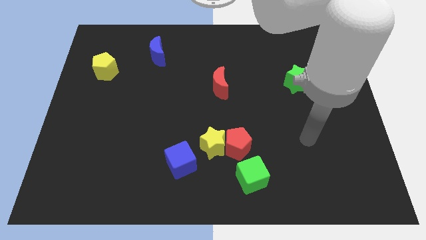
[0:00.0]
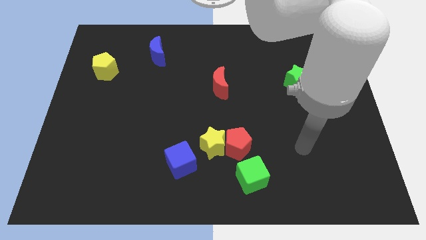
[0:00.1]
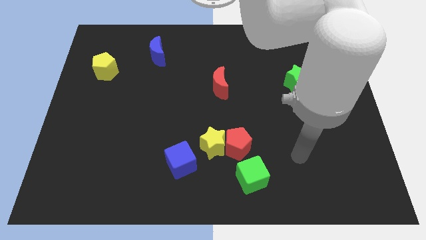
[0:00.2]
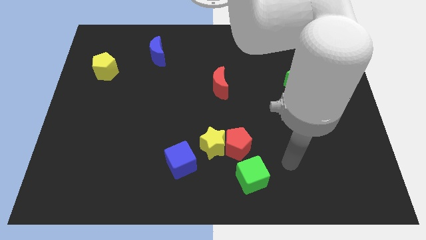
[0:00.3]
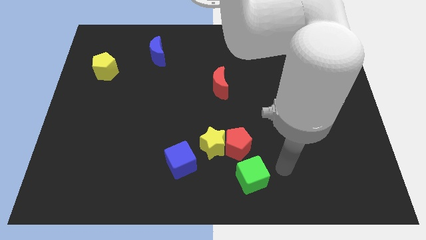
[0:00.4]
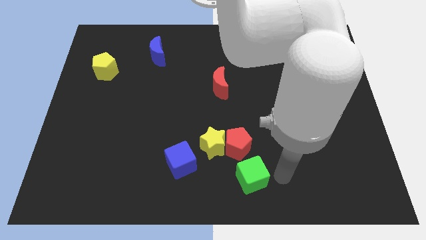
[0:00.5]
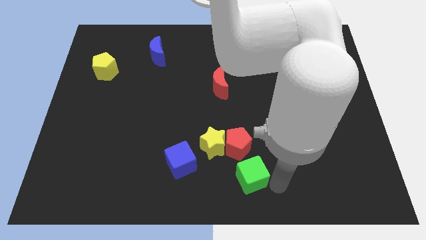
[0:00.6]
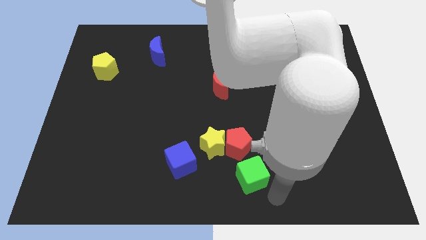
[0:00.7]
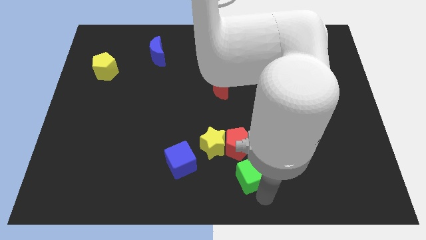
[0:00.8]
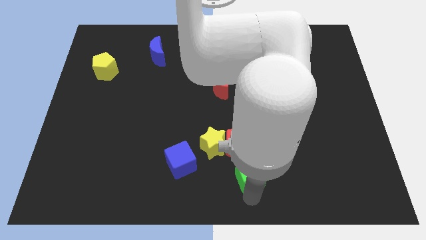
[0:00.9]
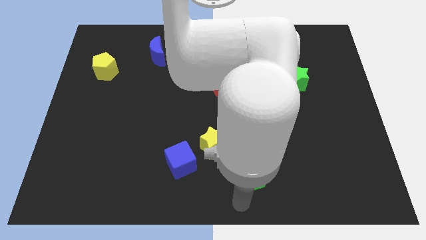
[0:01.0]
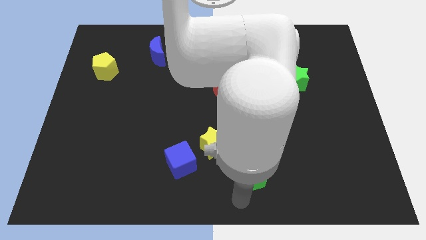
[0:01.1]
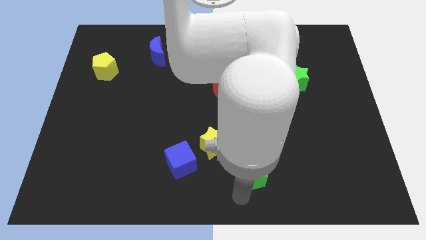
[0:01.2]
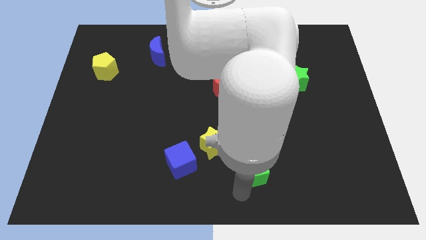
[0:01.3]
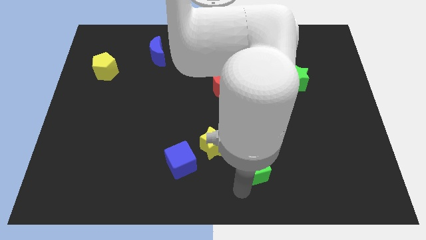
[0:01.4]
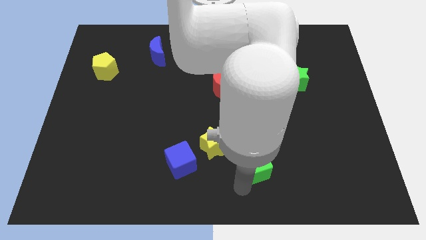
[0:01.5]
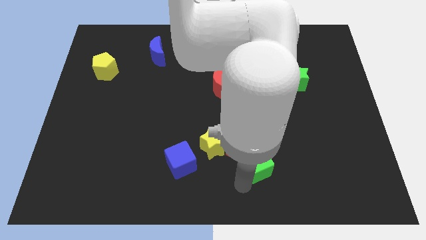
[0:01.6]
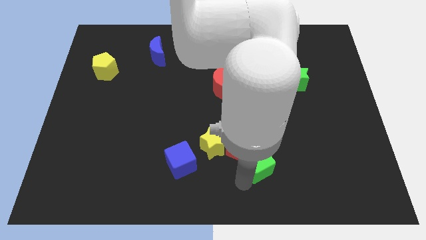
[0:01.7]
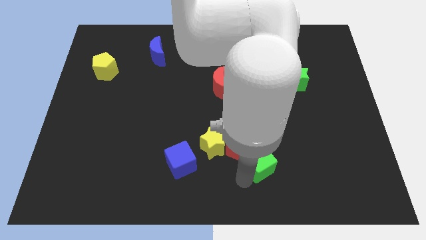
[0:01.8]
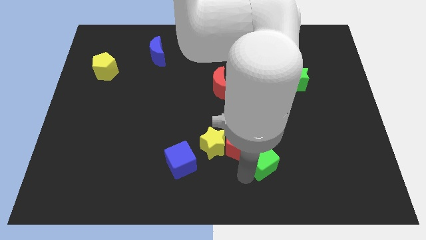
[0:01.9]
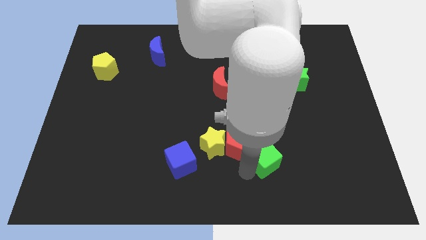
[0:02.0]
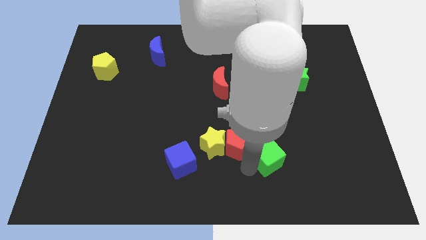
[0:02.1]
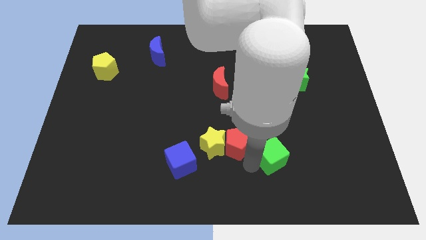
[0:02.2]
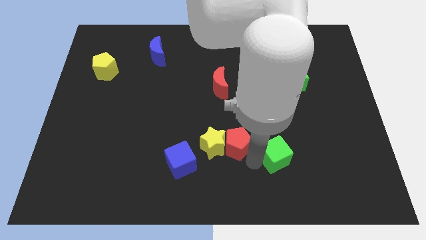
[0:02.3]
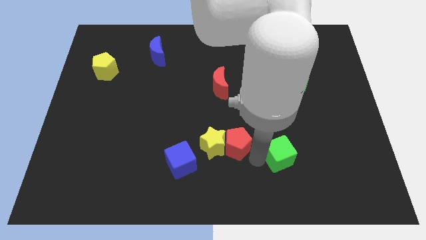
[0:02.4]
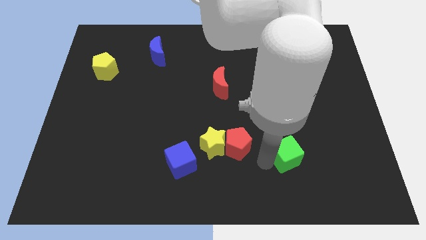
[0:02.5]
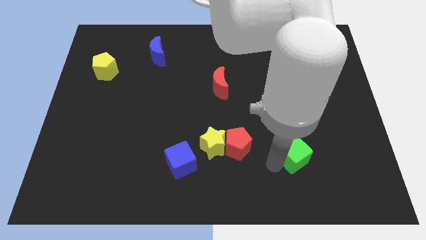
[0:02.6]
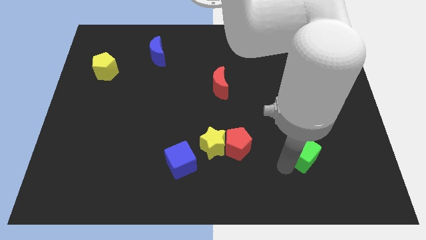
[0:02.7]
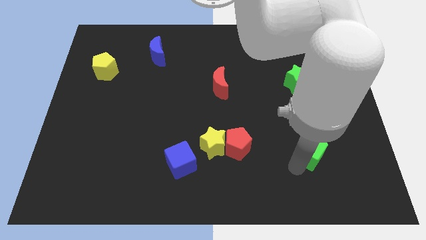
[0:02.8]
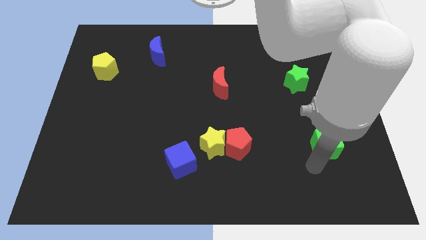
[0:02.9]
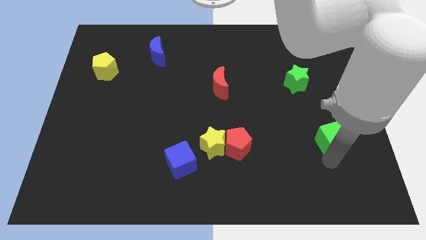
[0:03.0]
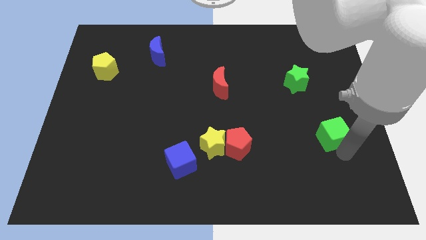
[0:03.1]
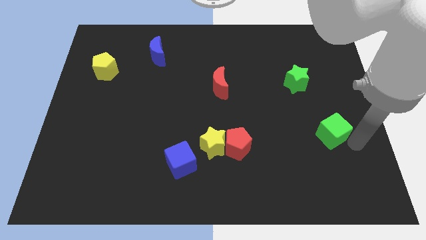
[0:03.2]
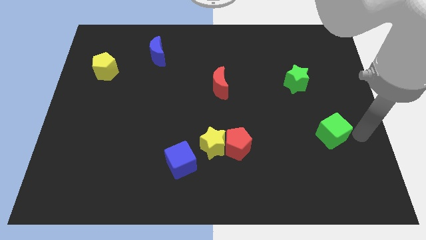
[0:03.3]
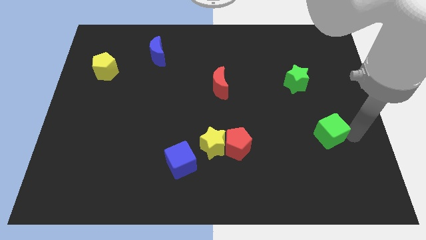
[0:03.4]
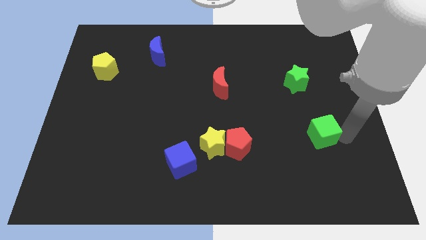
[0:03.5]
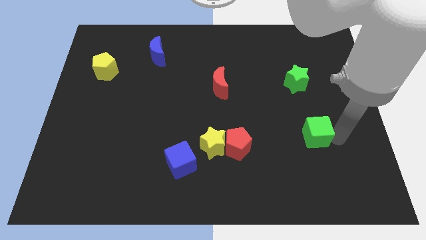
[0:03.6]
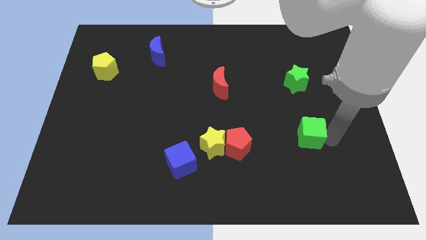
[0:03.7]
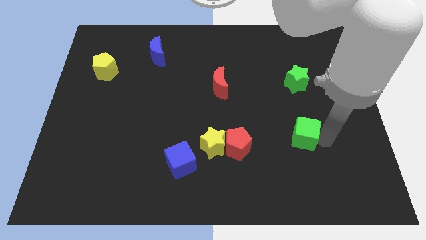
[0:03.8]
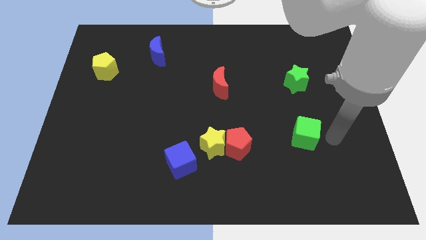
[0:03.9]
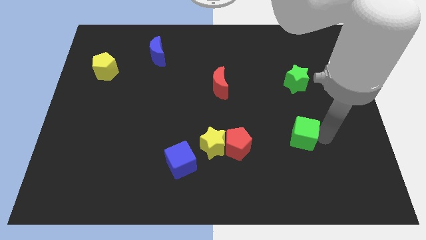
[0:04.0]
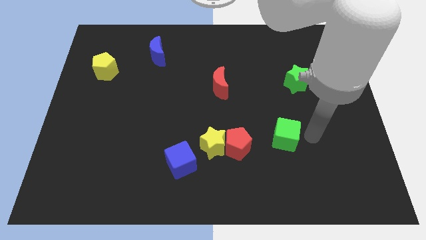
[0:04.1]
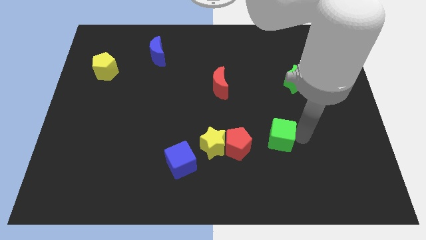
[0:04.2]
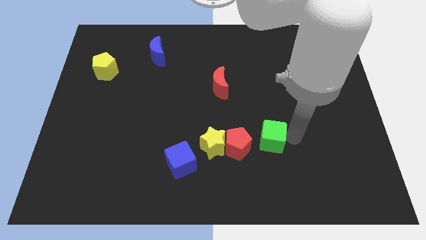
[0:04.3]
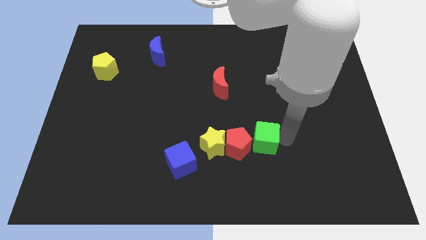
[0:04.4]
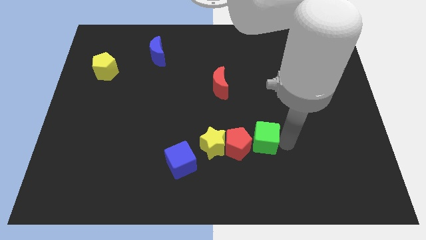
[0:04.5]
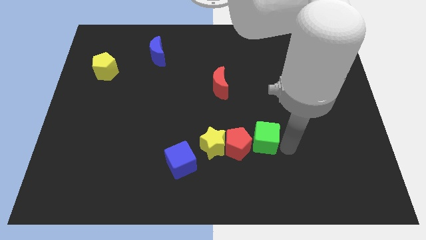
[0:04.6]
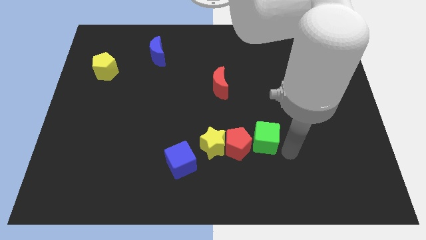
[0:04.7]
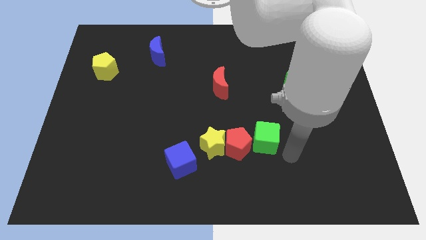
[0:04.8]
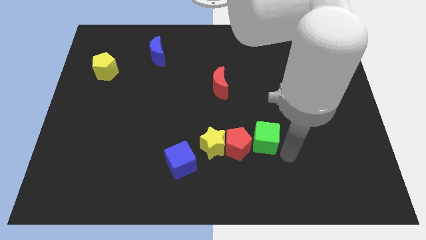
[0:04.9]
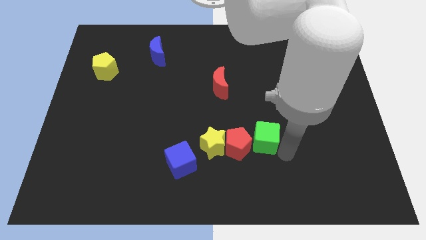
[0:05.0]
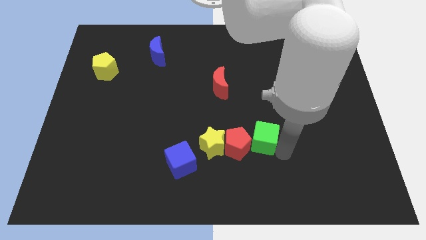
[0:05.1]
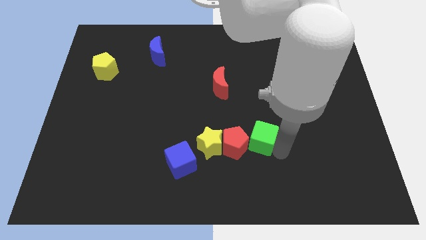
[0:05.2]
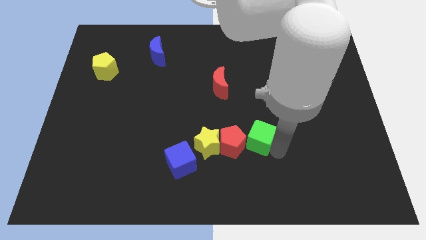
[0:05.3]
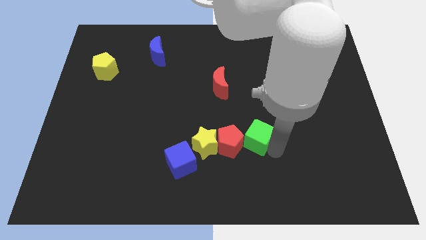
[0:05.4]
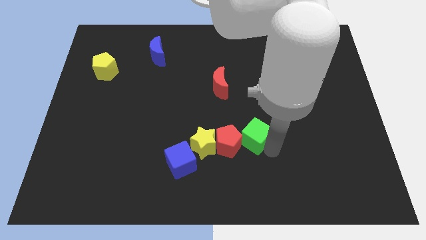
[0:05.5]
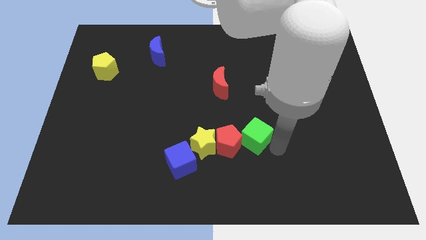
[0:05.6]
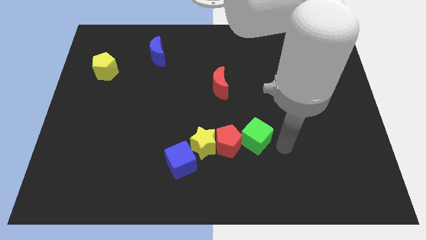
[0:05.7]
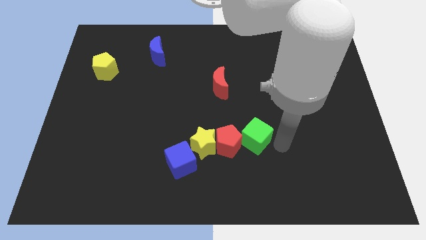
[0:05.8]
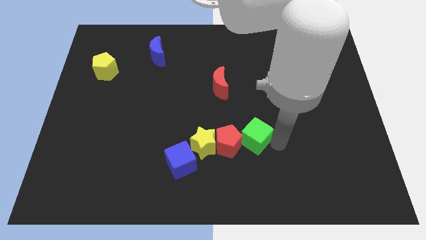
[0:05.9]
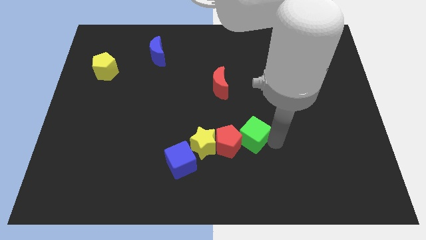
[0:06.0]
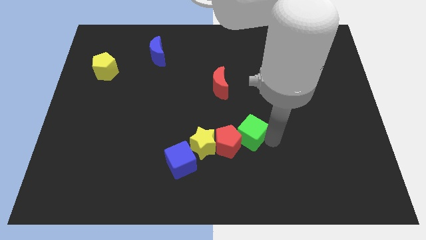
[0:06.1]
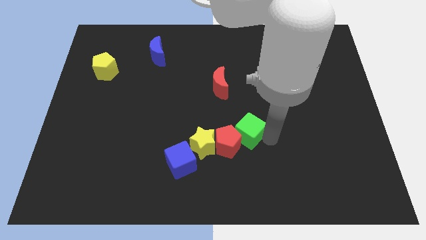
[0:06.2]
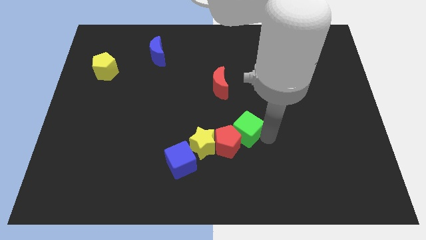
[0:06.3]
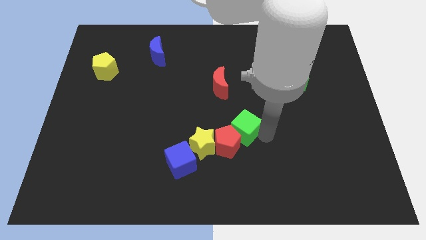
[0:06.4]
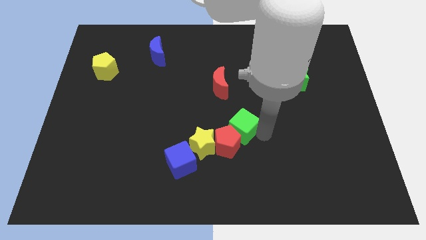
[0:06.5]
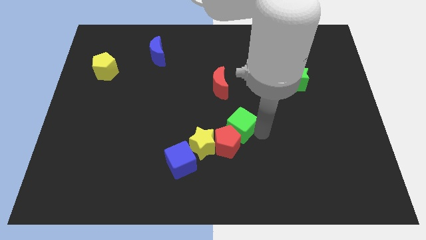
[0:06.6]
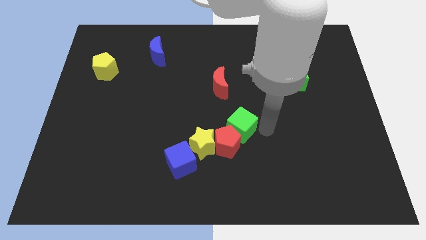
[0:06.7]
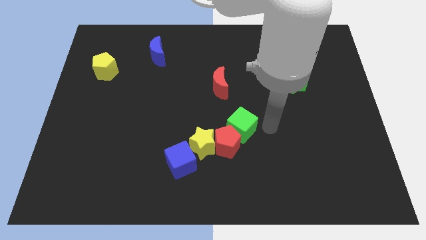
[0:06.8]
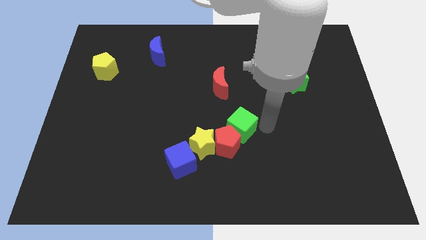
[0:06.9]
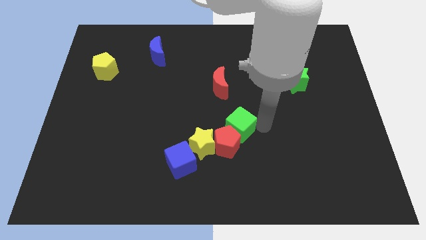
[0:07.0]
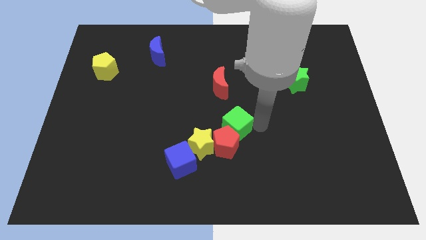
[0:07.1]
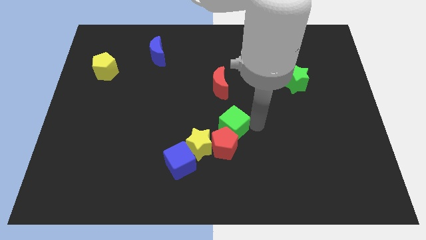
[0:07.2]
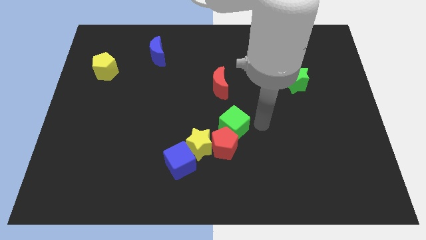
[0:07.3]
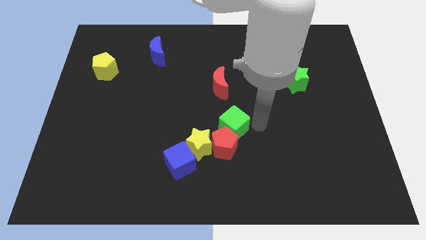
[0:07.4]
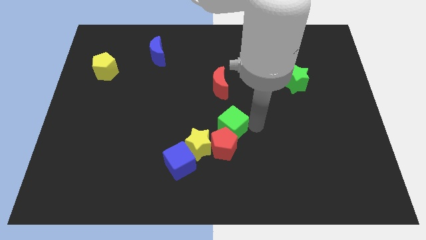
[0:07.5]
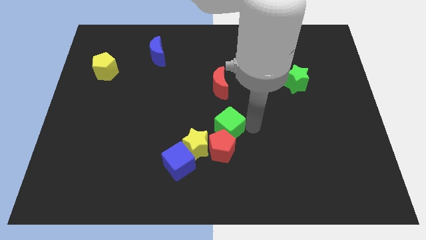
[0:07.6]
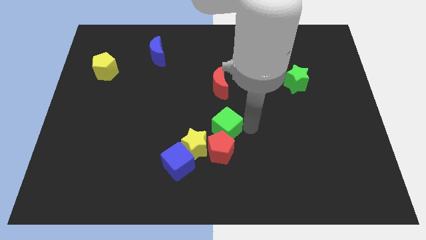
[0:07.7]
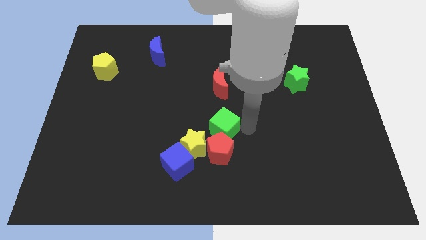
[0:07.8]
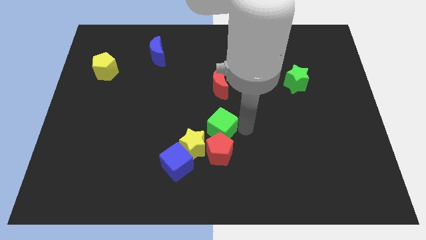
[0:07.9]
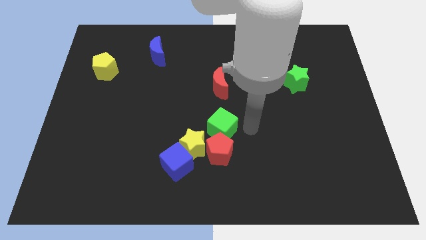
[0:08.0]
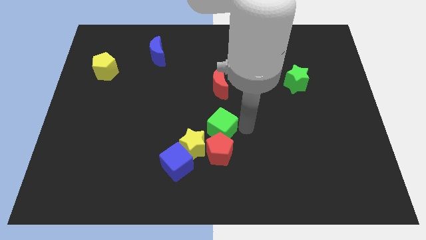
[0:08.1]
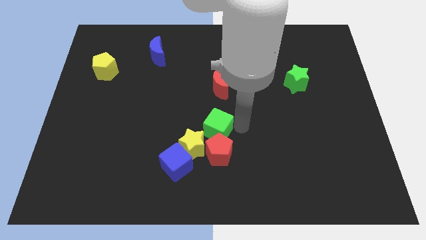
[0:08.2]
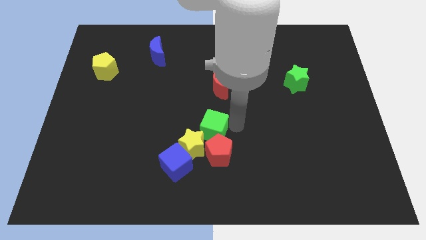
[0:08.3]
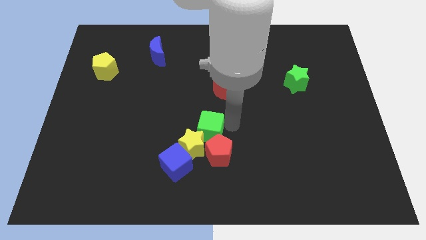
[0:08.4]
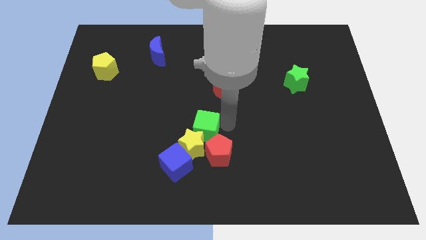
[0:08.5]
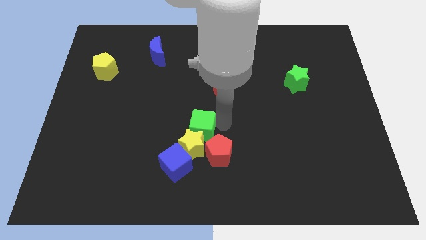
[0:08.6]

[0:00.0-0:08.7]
slide the green cube to the top left side of the yellow star
